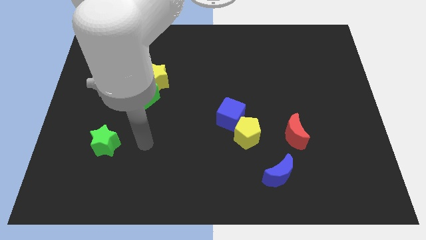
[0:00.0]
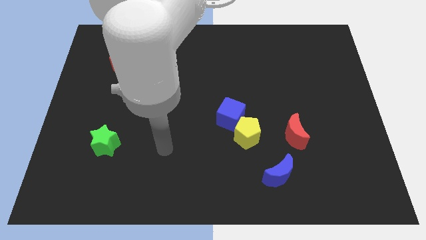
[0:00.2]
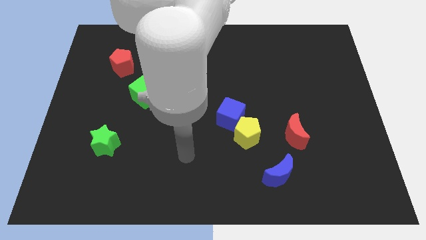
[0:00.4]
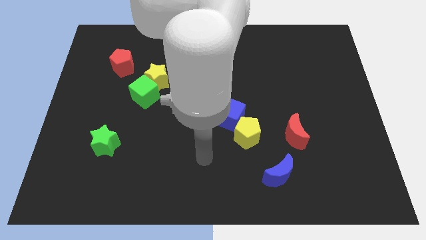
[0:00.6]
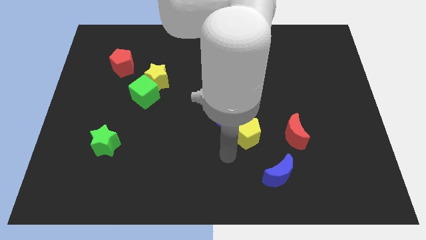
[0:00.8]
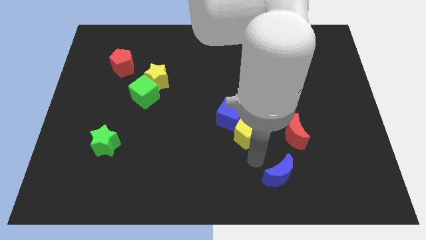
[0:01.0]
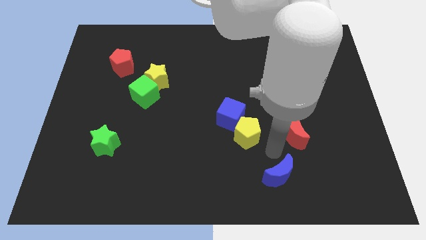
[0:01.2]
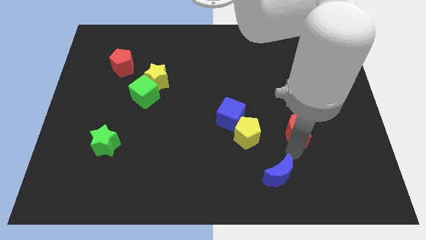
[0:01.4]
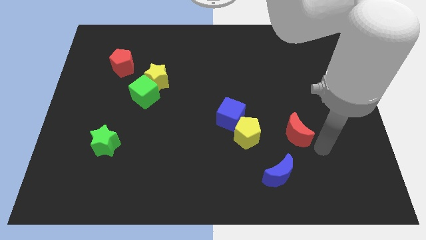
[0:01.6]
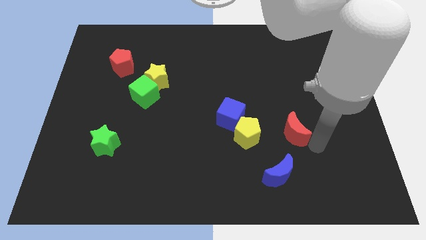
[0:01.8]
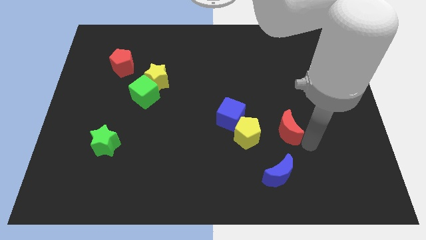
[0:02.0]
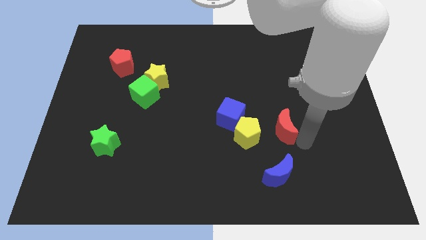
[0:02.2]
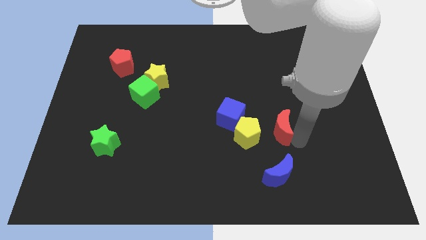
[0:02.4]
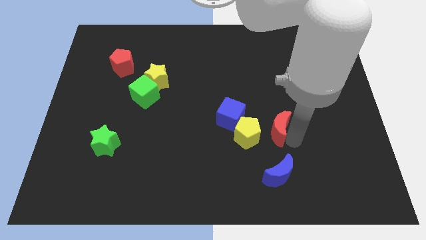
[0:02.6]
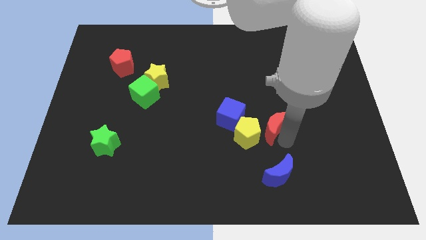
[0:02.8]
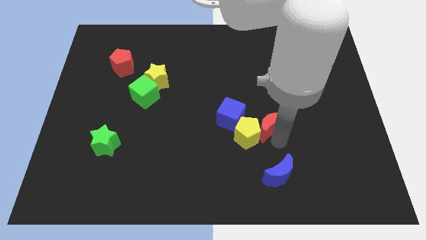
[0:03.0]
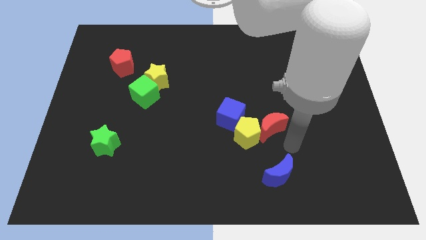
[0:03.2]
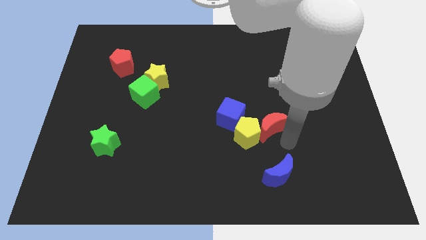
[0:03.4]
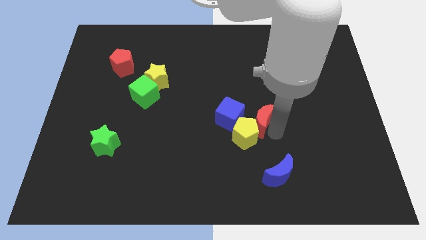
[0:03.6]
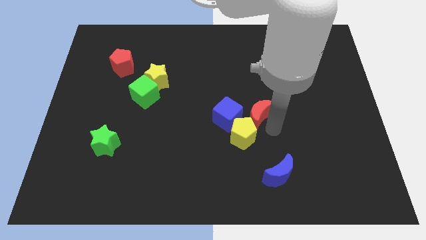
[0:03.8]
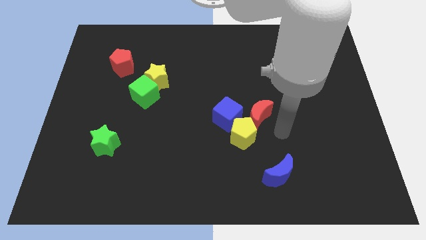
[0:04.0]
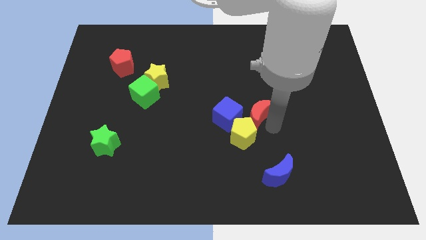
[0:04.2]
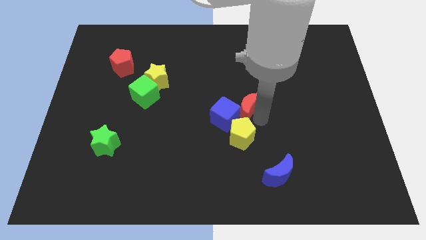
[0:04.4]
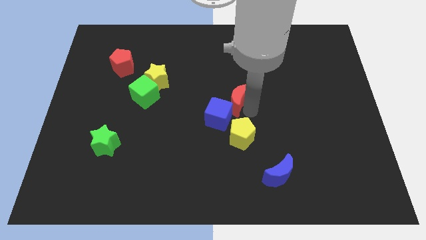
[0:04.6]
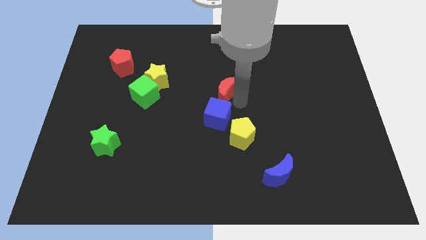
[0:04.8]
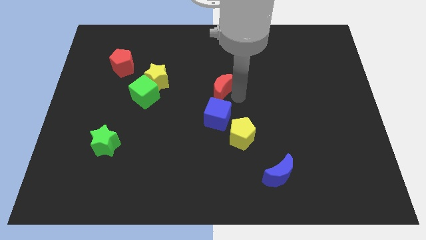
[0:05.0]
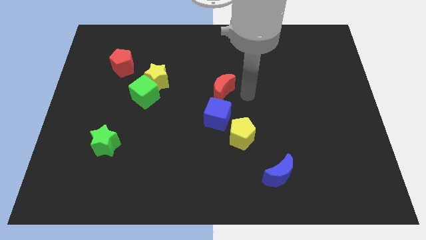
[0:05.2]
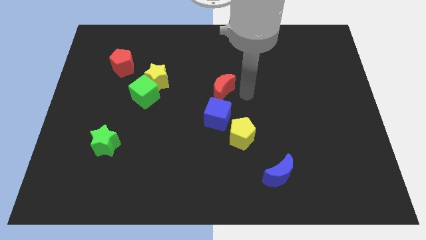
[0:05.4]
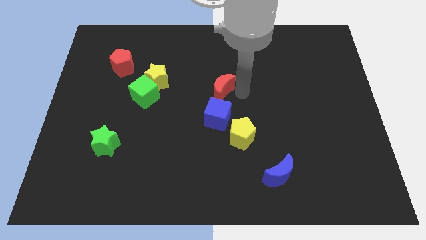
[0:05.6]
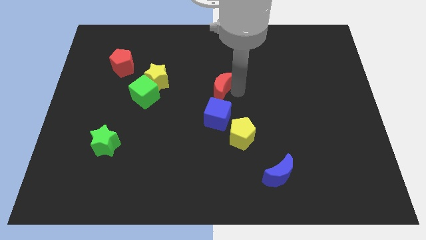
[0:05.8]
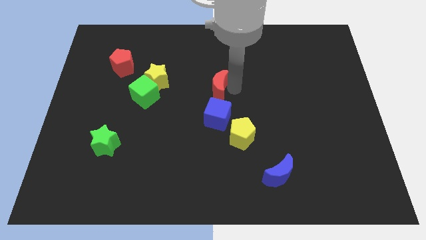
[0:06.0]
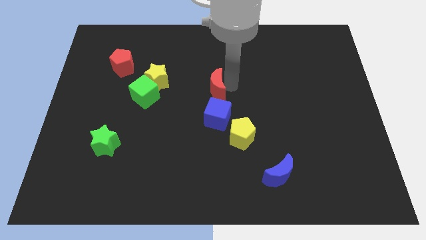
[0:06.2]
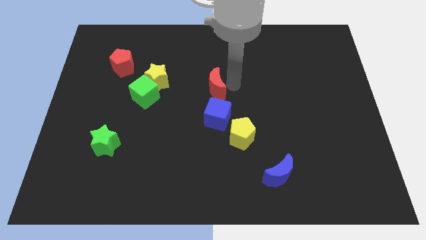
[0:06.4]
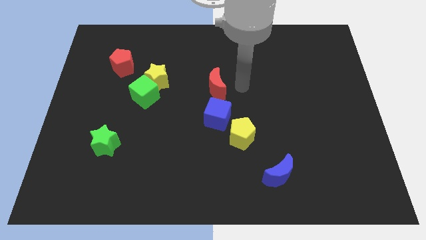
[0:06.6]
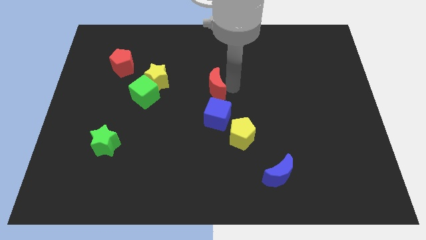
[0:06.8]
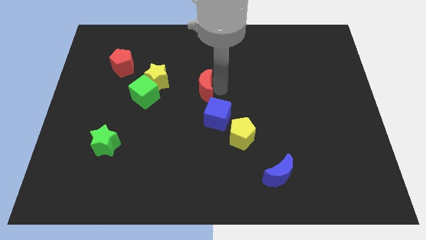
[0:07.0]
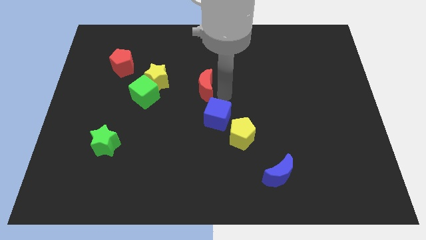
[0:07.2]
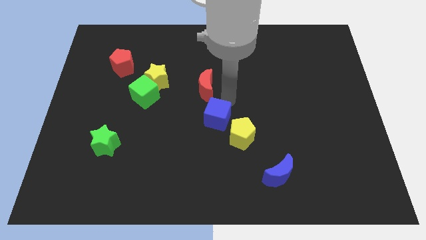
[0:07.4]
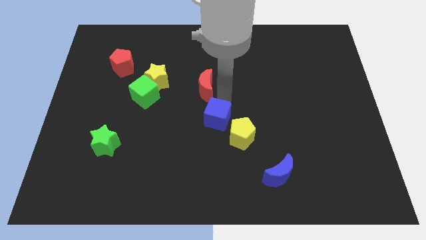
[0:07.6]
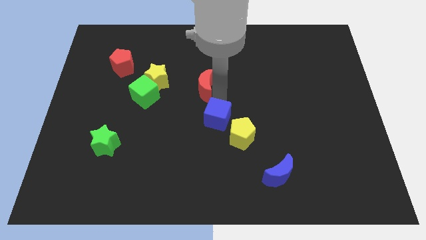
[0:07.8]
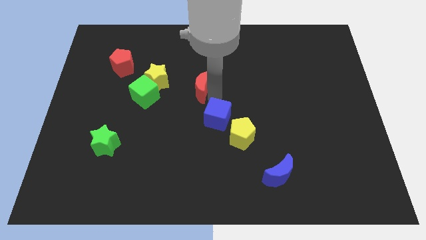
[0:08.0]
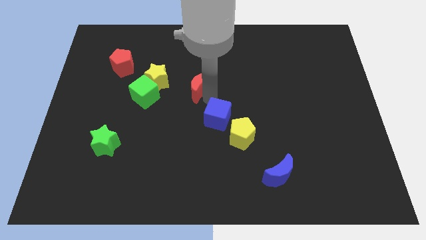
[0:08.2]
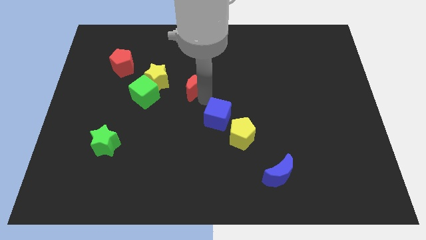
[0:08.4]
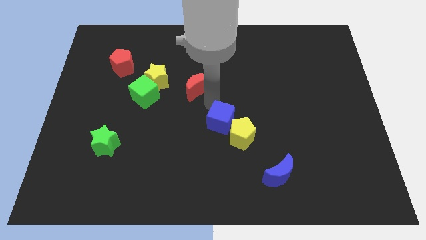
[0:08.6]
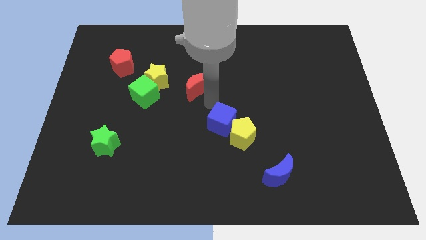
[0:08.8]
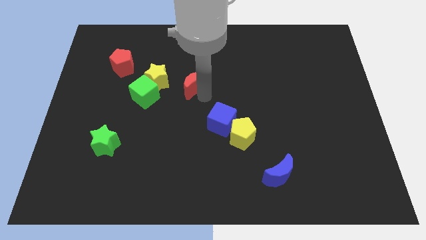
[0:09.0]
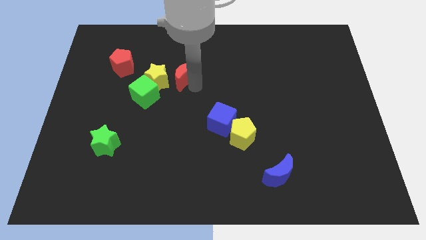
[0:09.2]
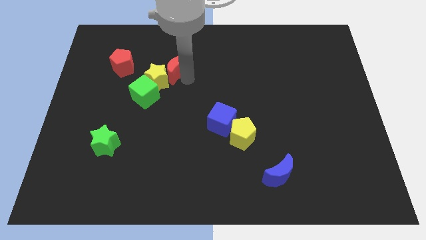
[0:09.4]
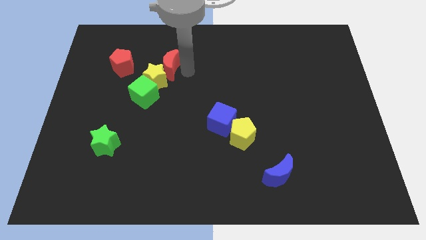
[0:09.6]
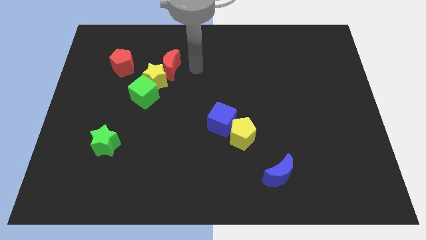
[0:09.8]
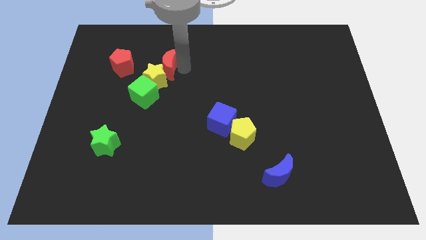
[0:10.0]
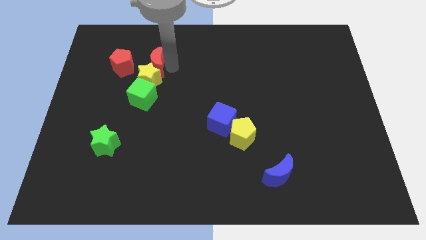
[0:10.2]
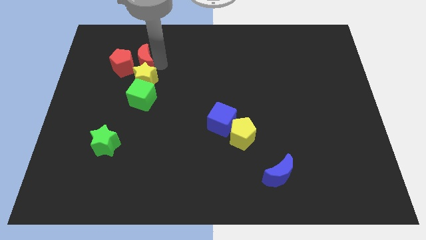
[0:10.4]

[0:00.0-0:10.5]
move the red moon to the red pentagon

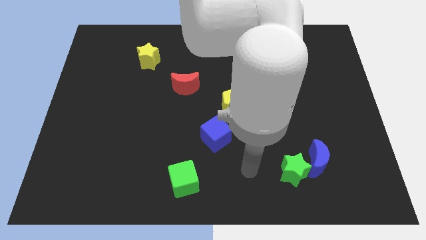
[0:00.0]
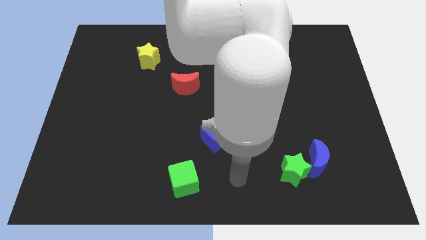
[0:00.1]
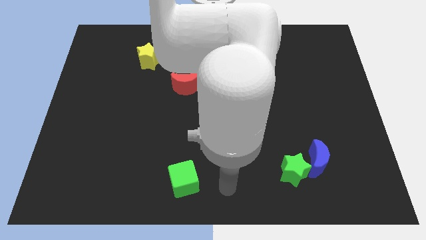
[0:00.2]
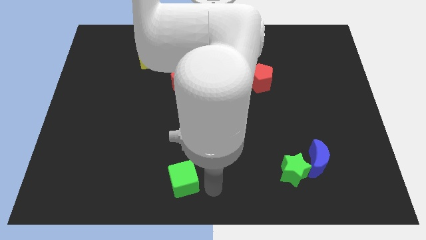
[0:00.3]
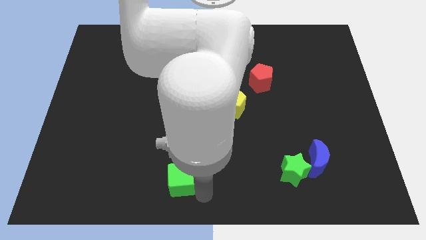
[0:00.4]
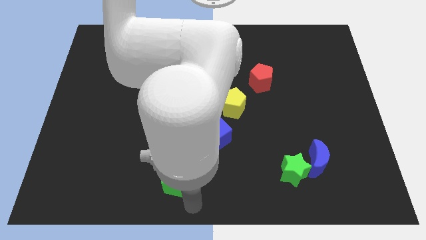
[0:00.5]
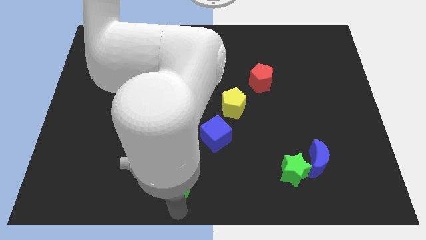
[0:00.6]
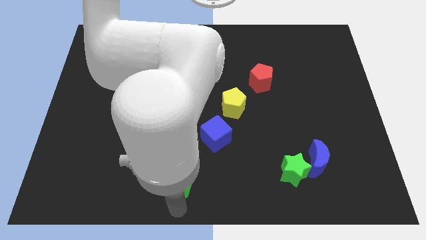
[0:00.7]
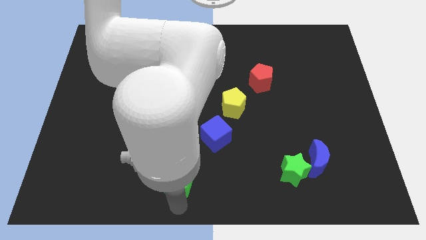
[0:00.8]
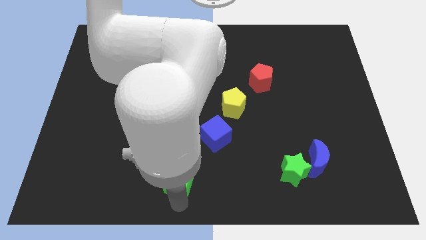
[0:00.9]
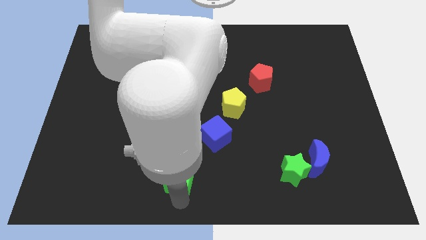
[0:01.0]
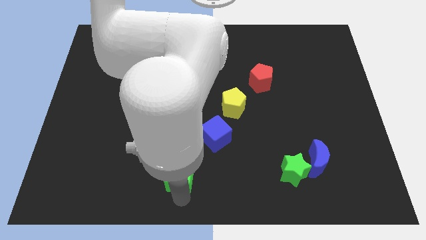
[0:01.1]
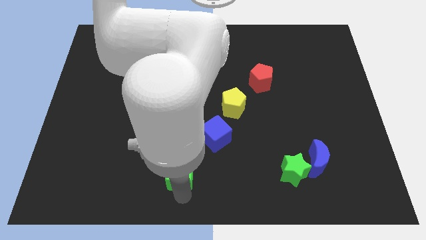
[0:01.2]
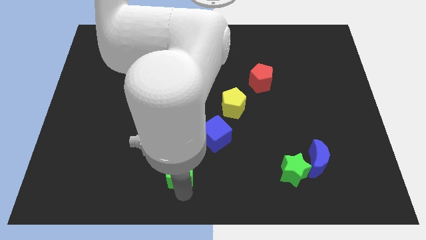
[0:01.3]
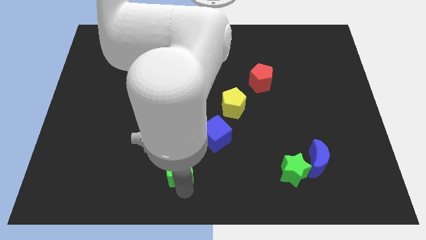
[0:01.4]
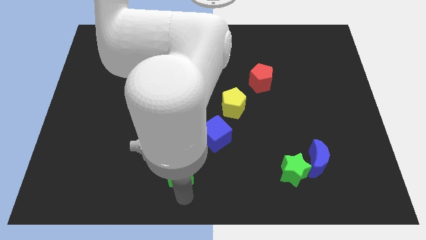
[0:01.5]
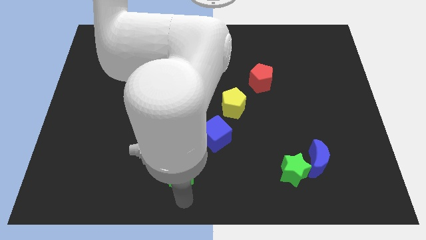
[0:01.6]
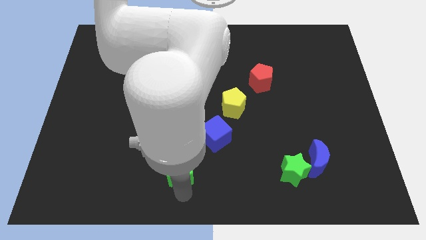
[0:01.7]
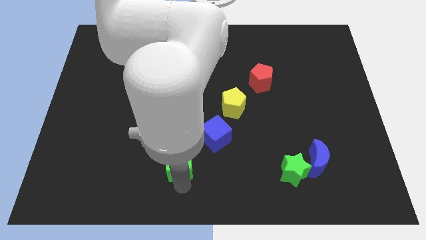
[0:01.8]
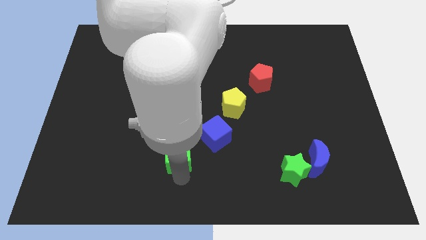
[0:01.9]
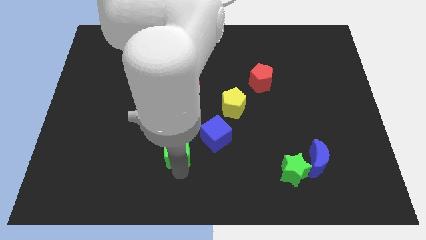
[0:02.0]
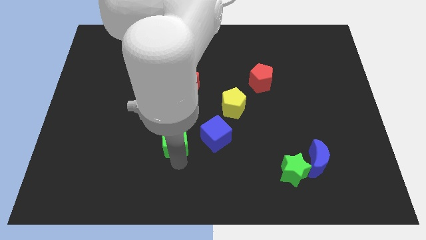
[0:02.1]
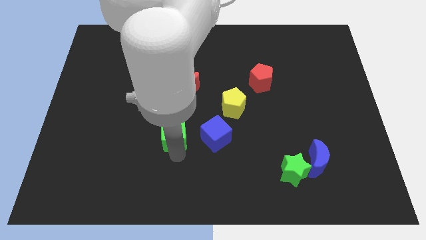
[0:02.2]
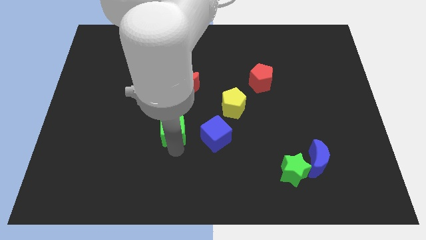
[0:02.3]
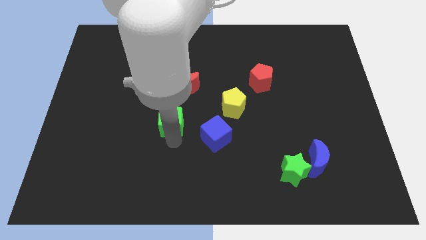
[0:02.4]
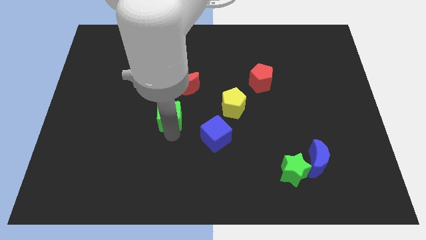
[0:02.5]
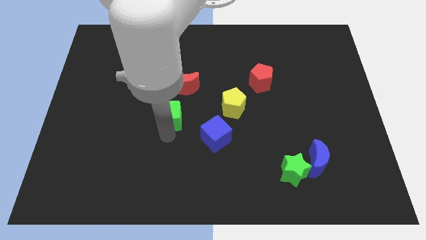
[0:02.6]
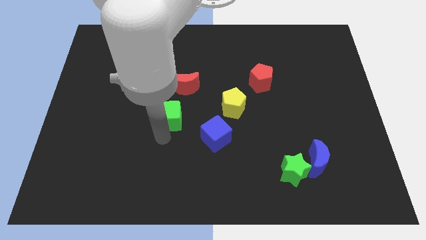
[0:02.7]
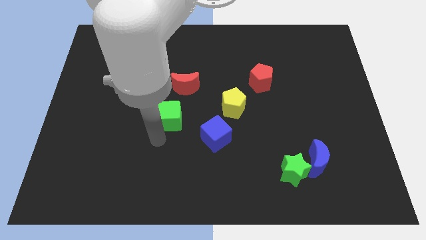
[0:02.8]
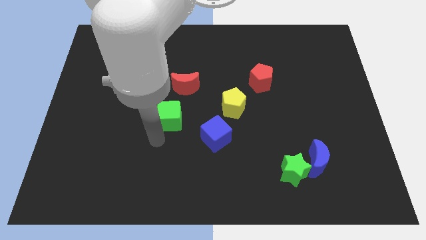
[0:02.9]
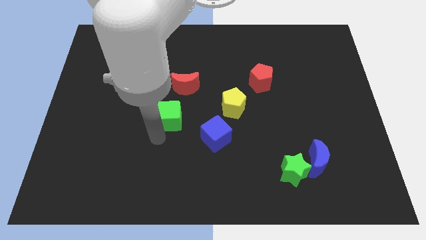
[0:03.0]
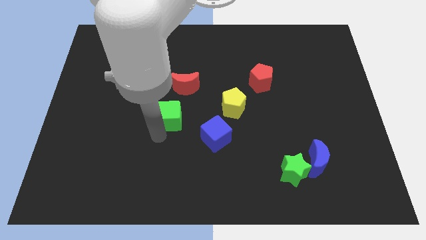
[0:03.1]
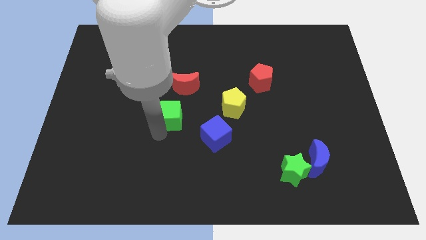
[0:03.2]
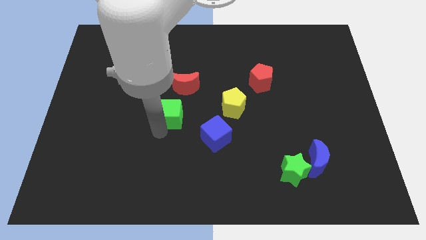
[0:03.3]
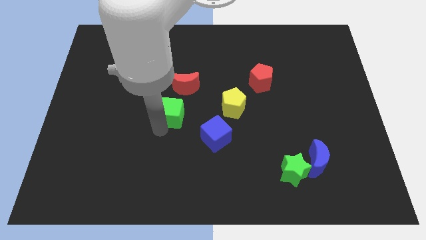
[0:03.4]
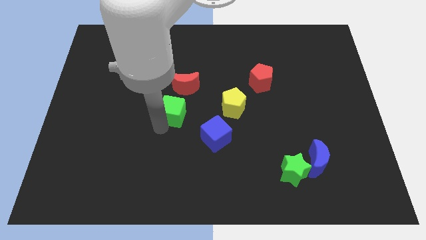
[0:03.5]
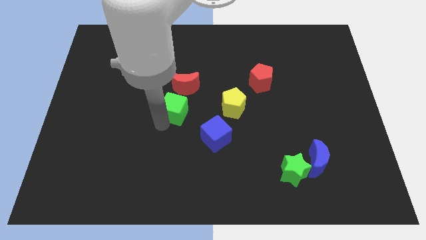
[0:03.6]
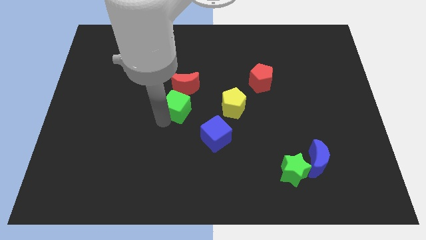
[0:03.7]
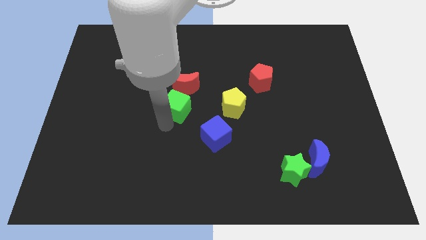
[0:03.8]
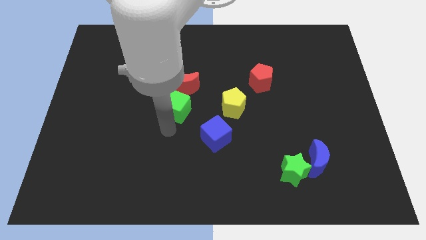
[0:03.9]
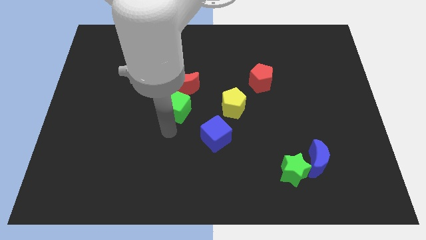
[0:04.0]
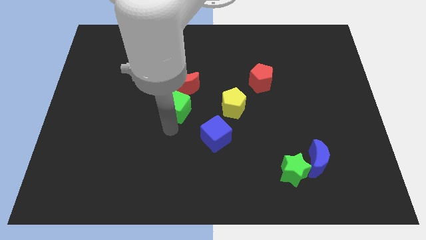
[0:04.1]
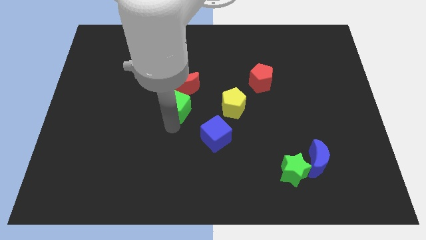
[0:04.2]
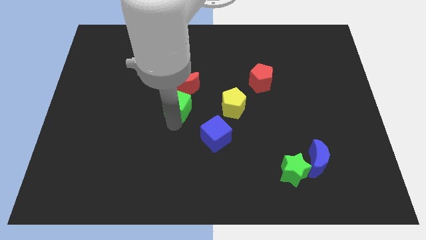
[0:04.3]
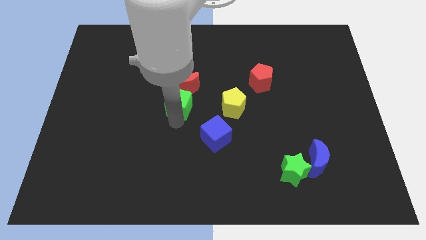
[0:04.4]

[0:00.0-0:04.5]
put the green cube towards the red moon
